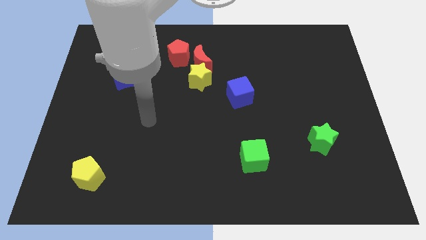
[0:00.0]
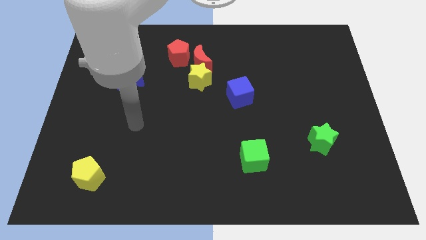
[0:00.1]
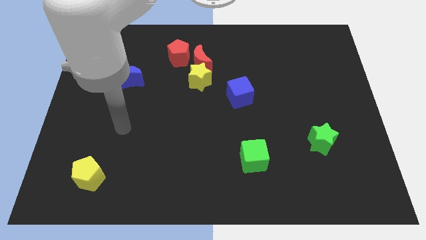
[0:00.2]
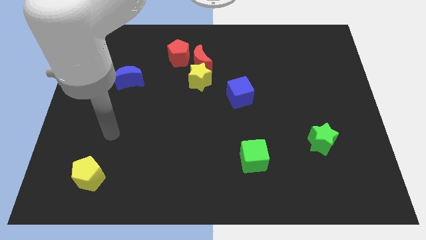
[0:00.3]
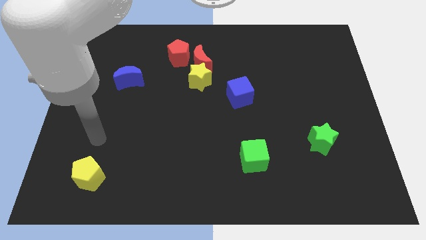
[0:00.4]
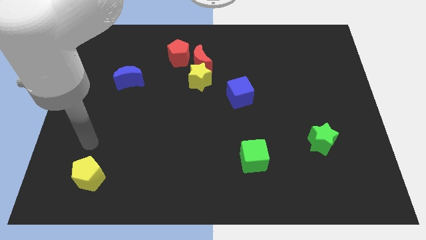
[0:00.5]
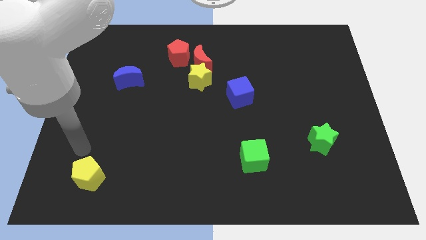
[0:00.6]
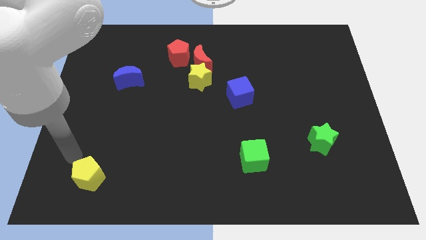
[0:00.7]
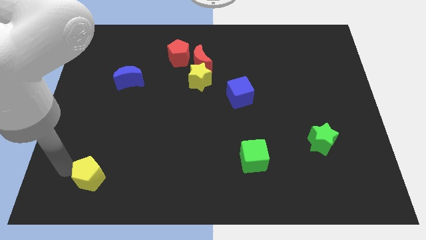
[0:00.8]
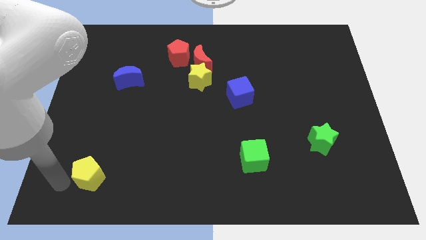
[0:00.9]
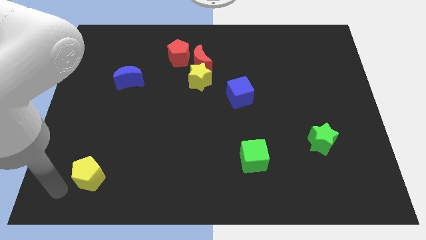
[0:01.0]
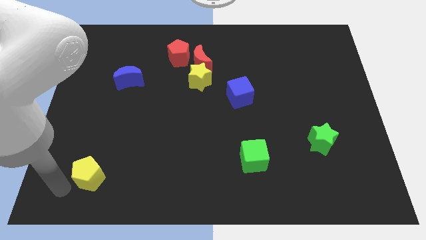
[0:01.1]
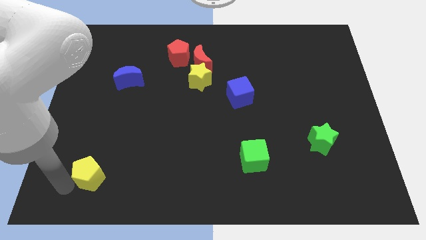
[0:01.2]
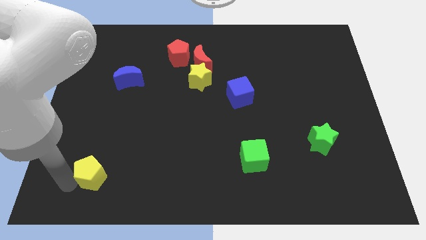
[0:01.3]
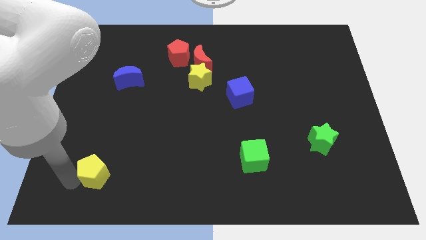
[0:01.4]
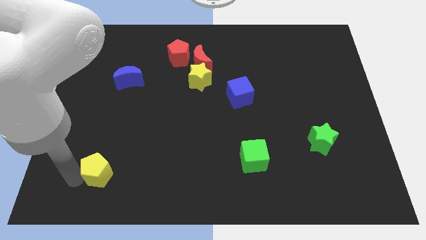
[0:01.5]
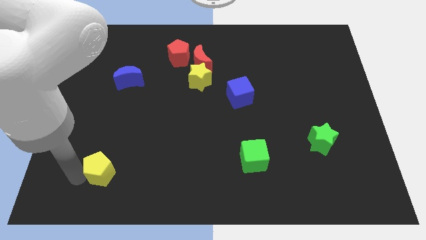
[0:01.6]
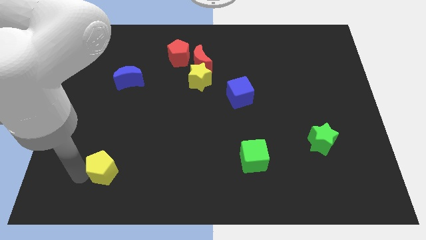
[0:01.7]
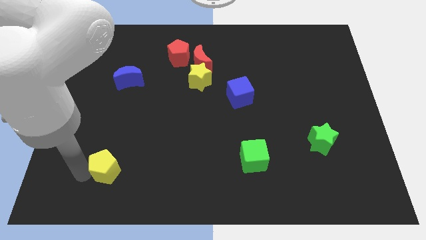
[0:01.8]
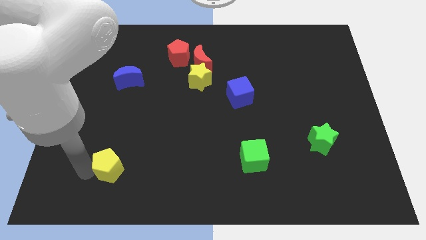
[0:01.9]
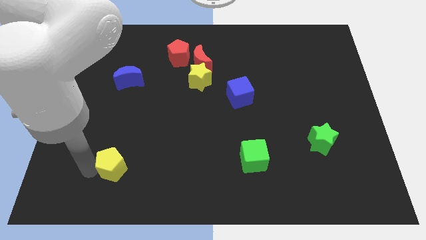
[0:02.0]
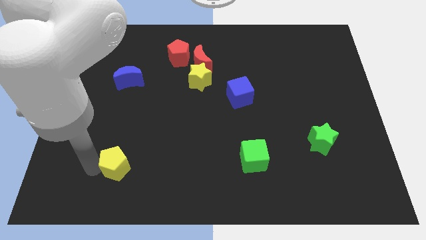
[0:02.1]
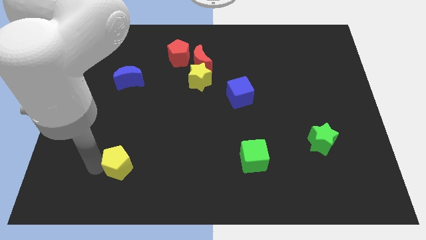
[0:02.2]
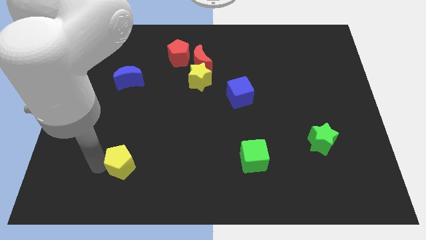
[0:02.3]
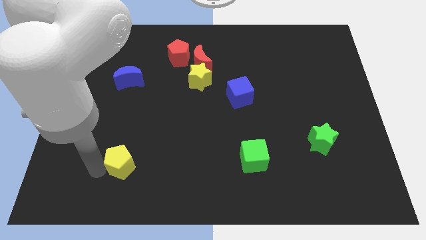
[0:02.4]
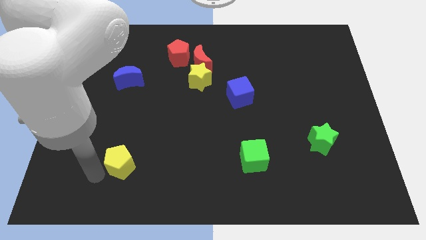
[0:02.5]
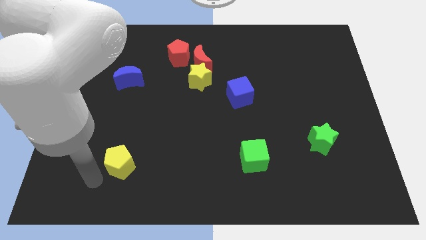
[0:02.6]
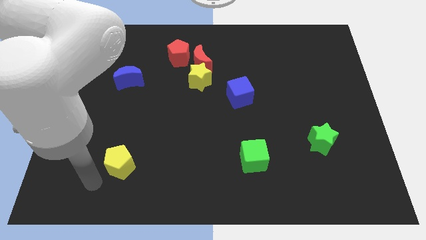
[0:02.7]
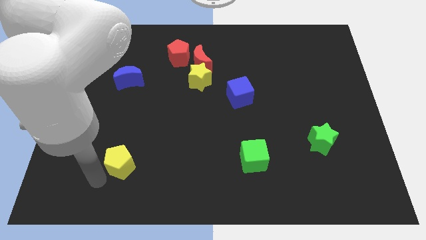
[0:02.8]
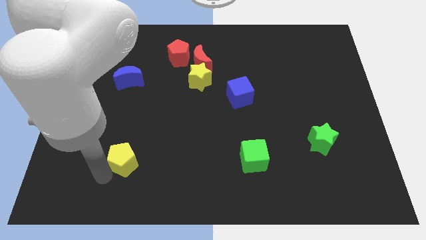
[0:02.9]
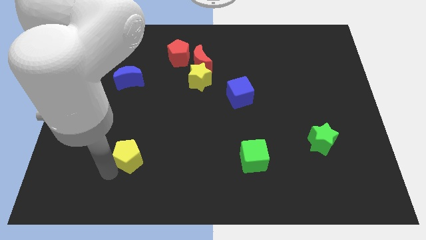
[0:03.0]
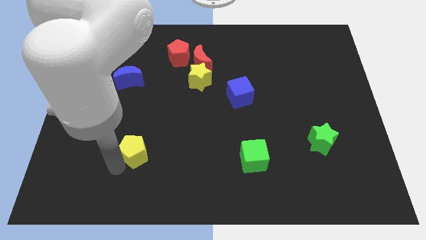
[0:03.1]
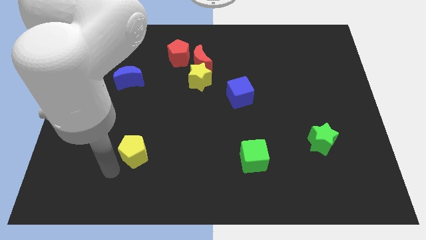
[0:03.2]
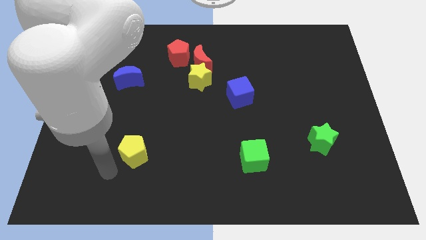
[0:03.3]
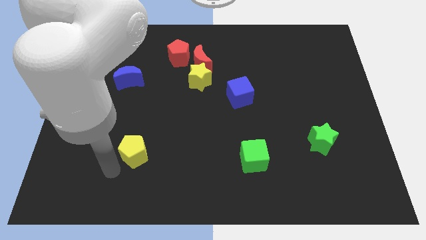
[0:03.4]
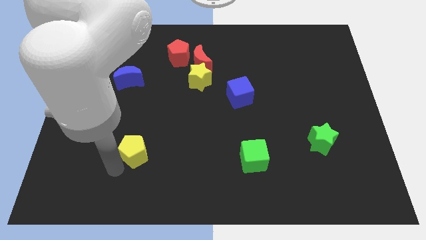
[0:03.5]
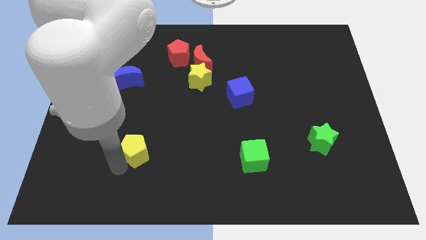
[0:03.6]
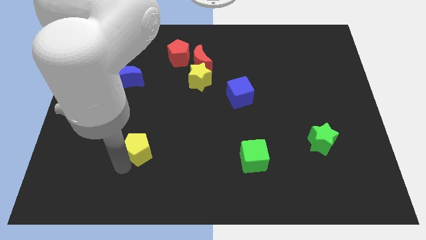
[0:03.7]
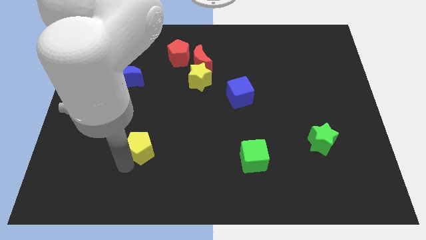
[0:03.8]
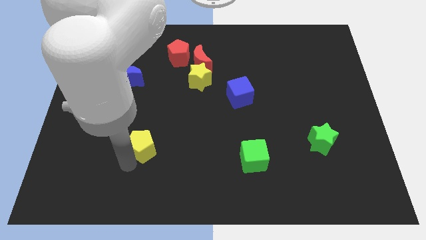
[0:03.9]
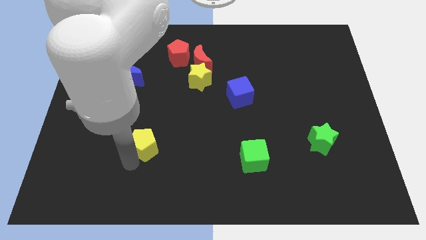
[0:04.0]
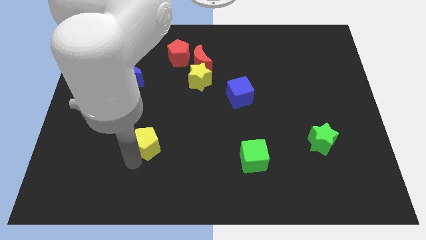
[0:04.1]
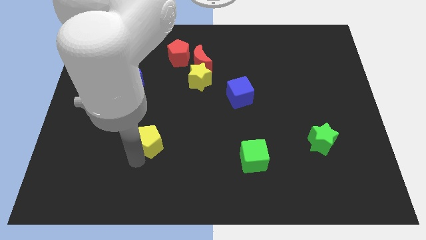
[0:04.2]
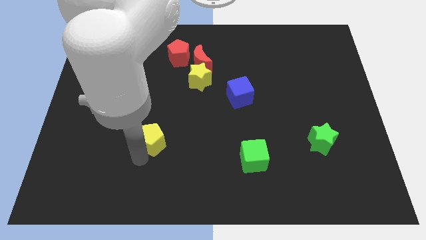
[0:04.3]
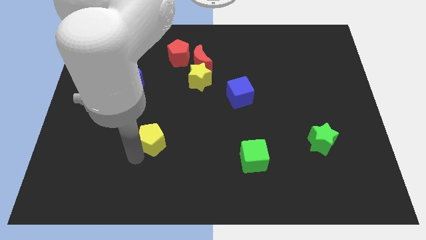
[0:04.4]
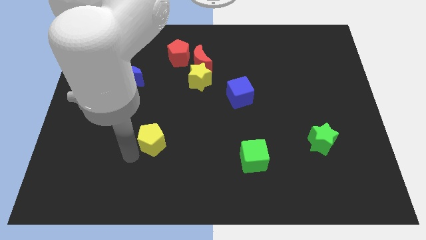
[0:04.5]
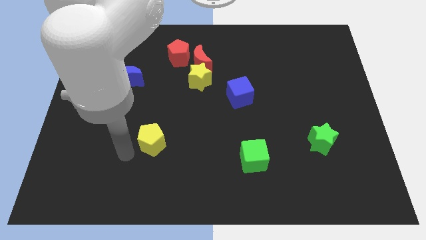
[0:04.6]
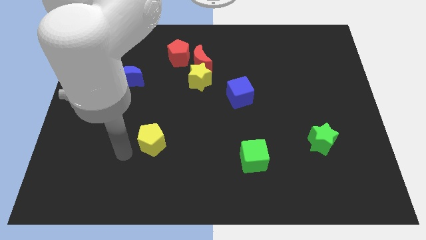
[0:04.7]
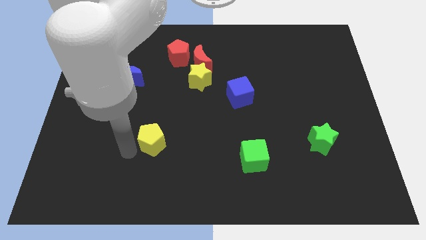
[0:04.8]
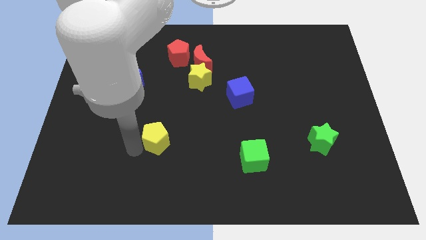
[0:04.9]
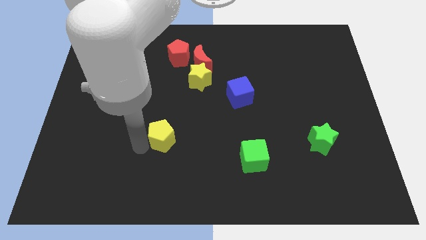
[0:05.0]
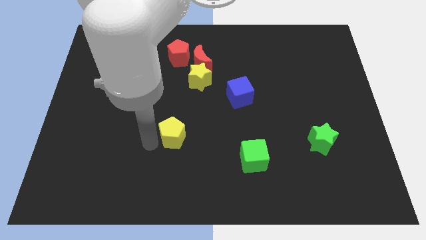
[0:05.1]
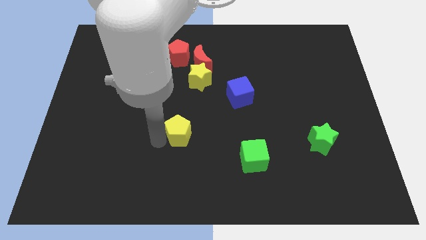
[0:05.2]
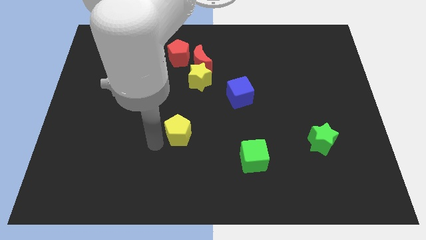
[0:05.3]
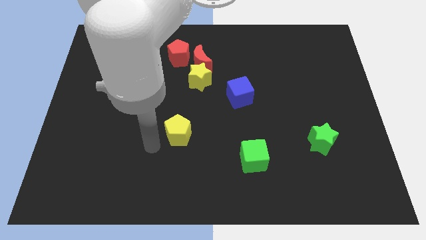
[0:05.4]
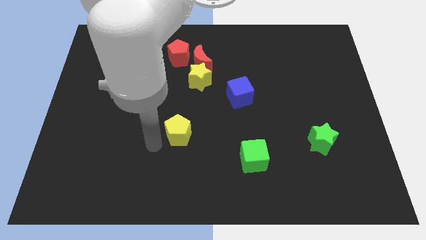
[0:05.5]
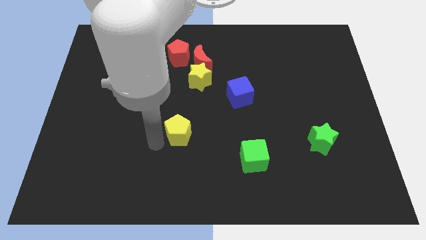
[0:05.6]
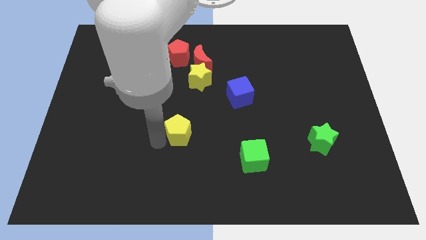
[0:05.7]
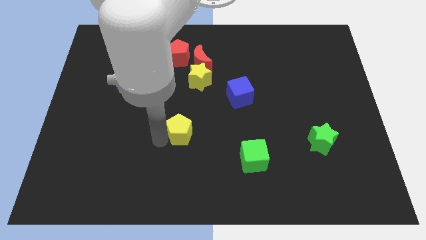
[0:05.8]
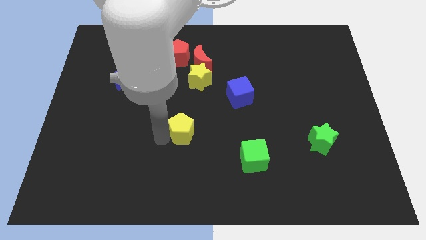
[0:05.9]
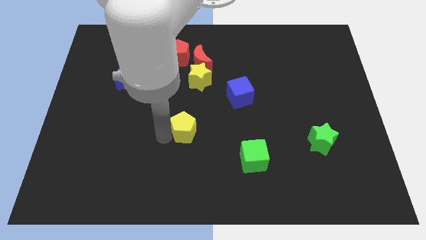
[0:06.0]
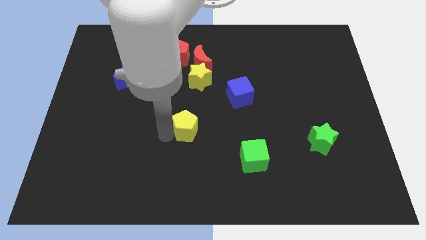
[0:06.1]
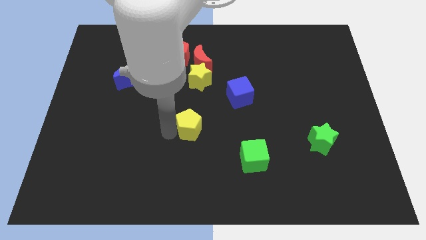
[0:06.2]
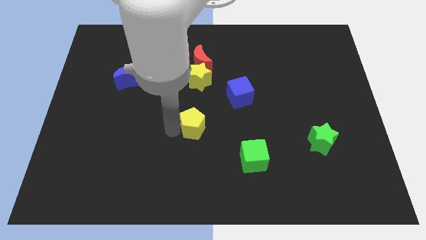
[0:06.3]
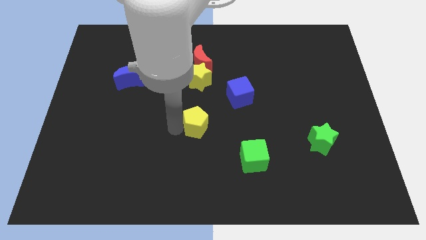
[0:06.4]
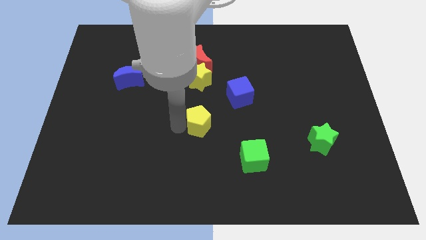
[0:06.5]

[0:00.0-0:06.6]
move the yellow pentagon to the bottom left of the blue cube

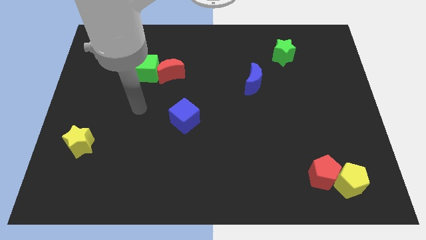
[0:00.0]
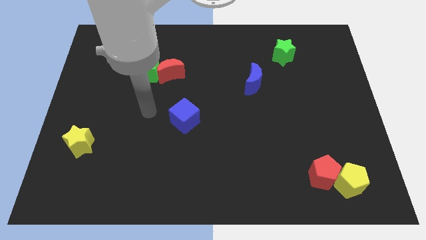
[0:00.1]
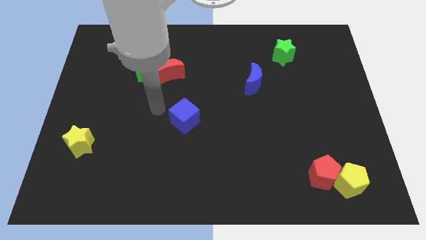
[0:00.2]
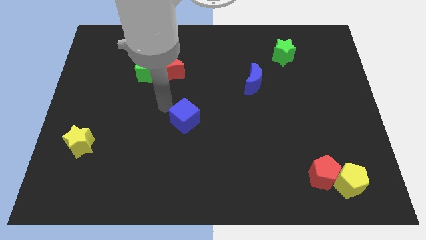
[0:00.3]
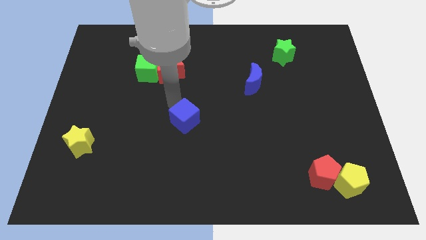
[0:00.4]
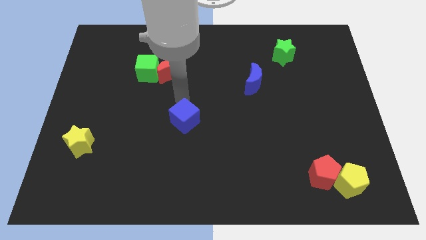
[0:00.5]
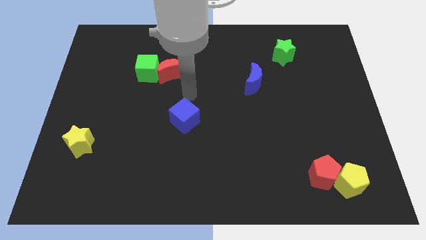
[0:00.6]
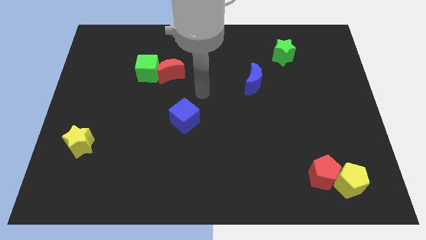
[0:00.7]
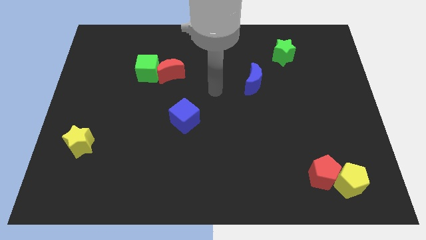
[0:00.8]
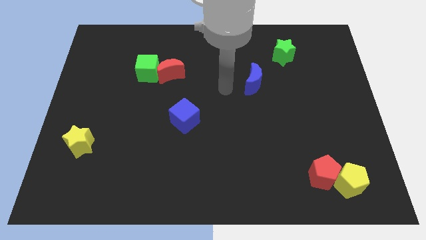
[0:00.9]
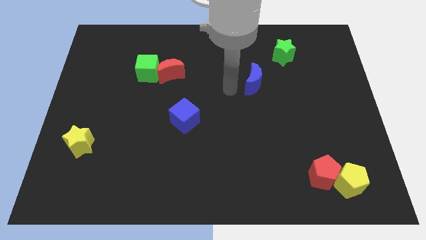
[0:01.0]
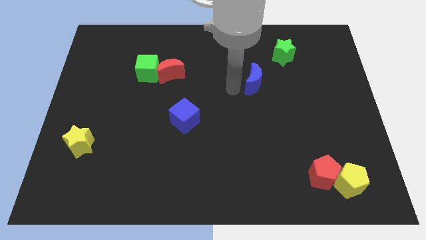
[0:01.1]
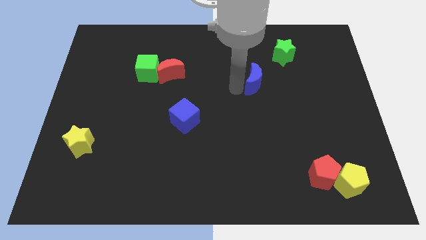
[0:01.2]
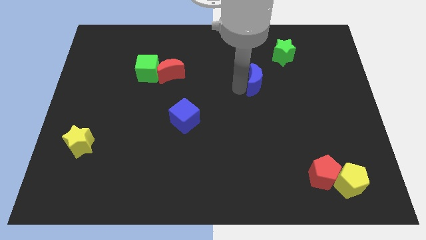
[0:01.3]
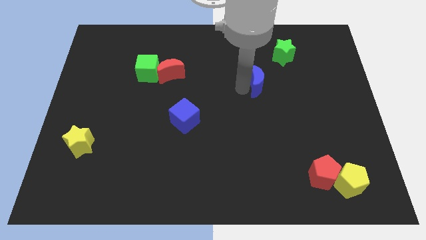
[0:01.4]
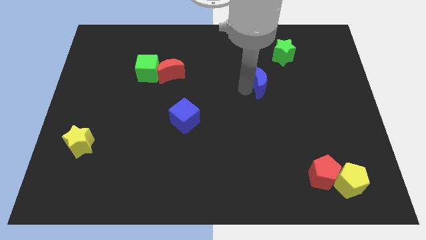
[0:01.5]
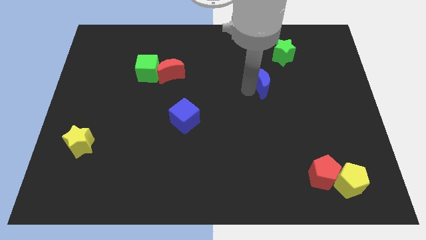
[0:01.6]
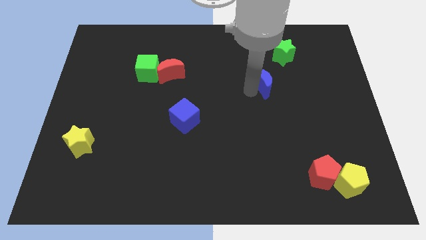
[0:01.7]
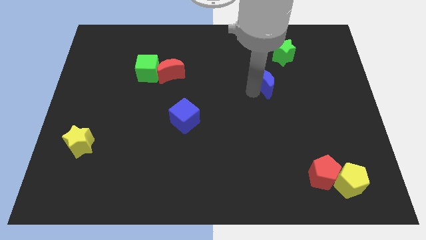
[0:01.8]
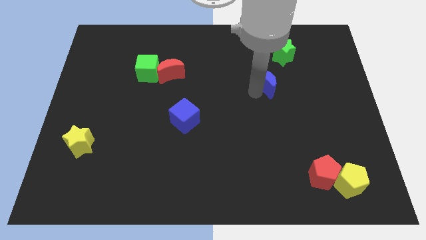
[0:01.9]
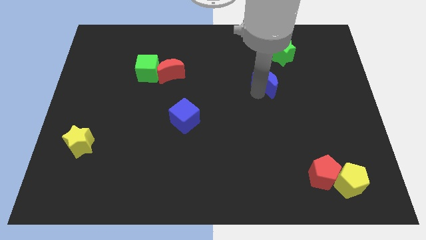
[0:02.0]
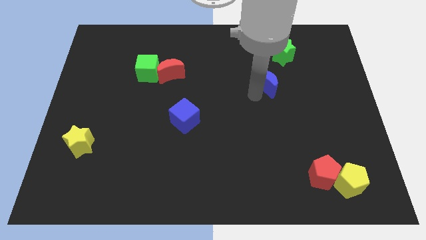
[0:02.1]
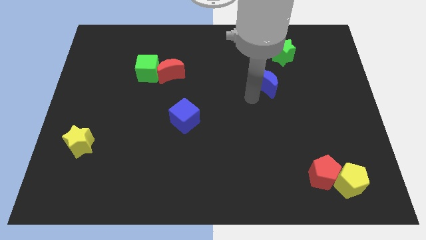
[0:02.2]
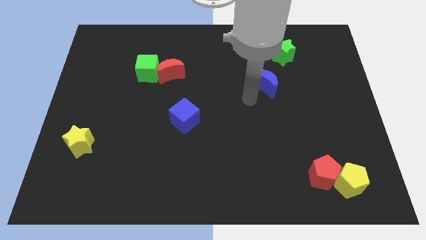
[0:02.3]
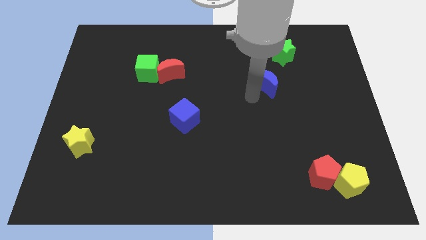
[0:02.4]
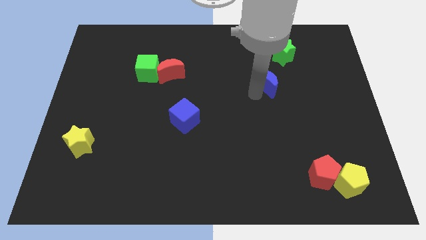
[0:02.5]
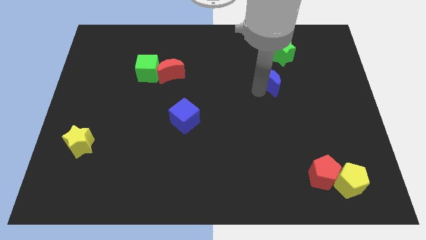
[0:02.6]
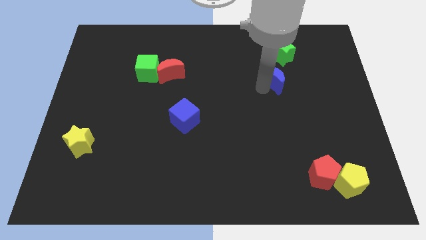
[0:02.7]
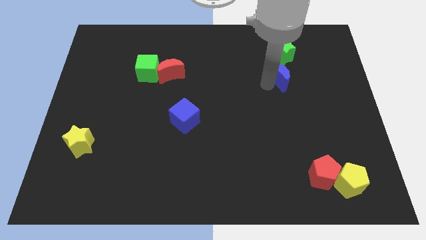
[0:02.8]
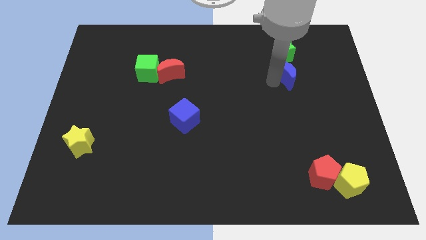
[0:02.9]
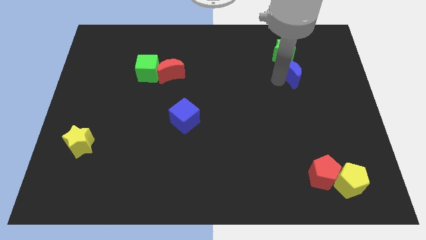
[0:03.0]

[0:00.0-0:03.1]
put the blue moon to the bottom right of the green star
